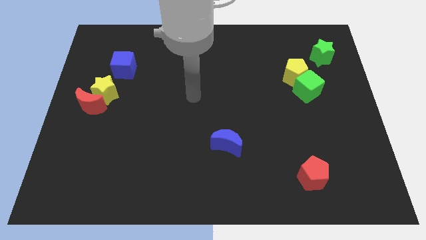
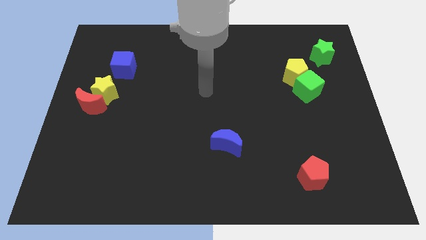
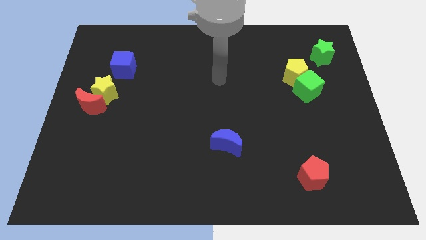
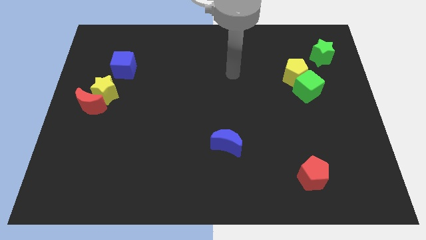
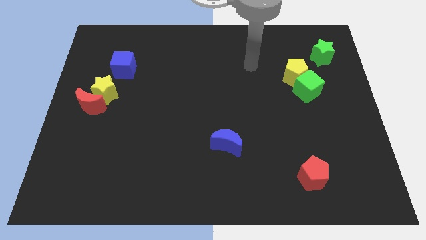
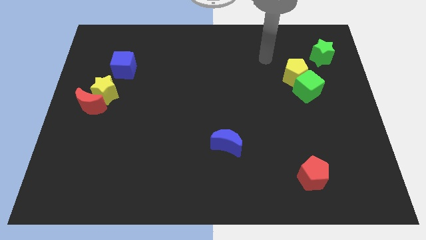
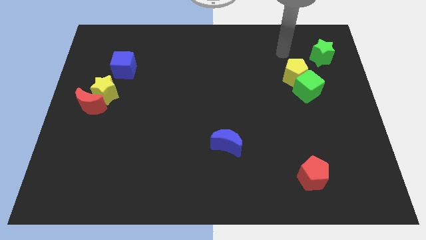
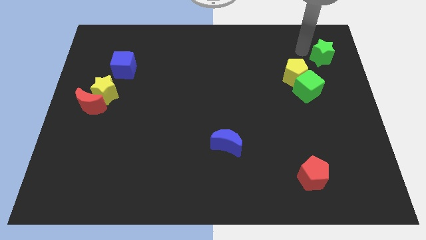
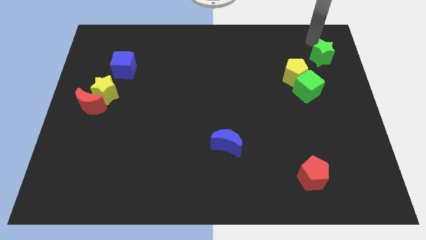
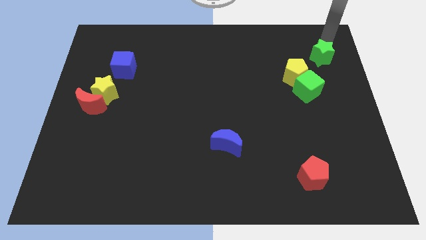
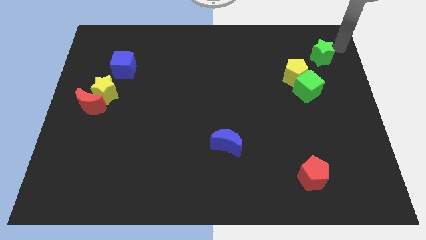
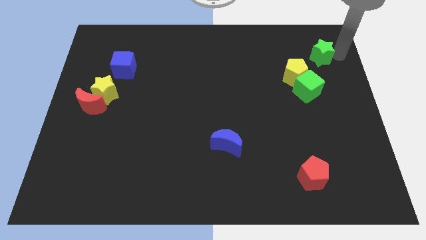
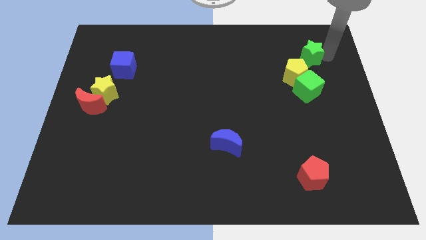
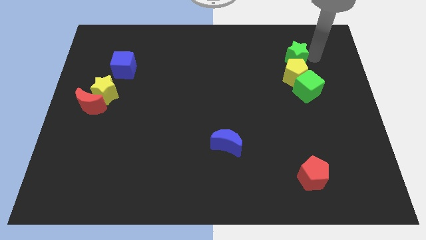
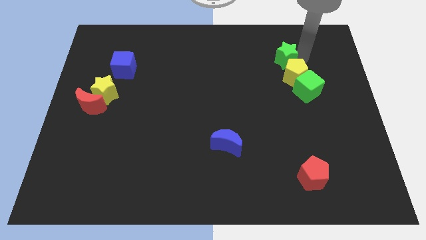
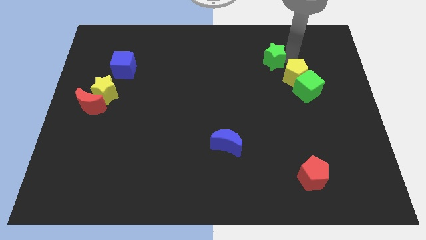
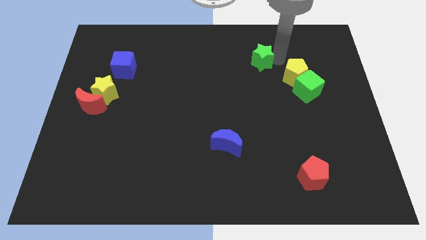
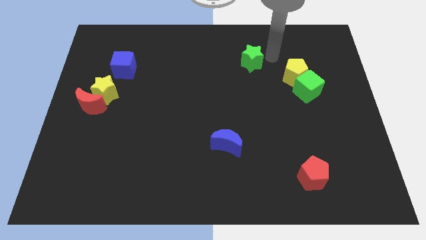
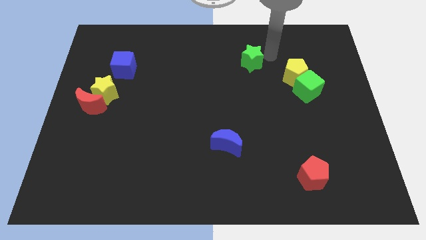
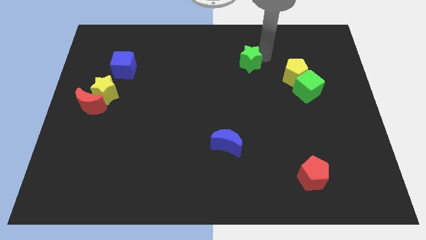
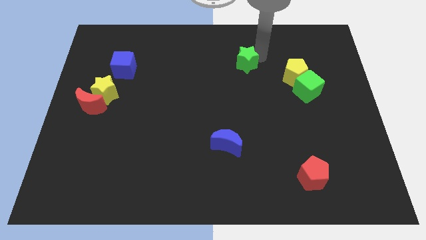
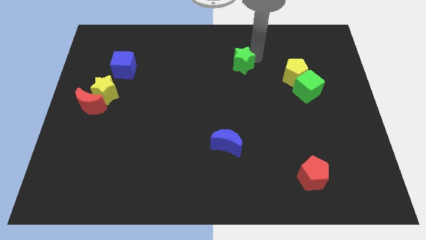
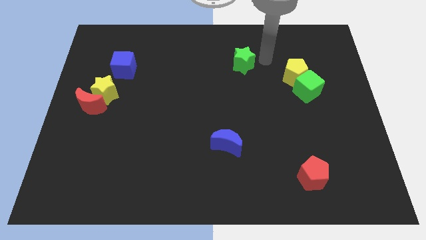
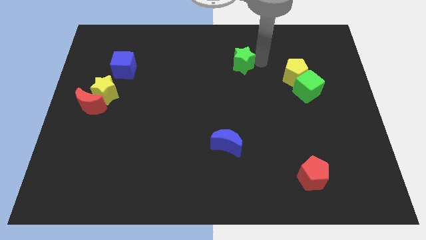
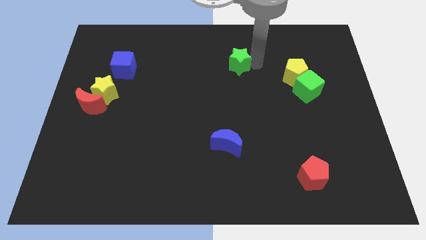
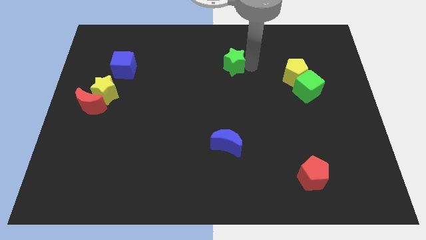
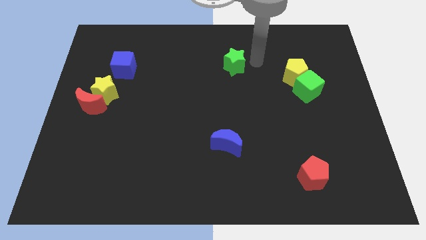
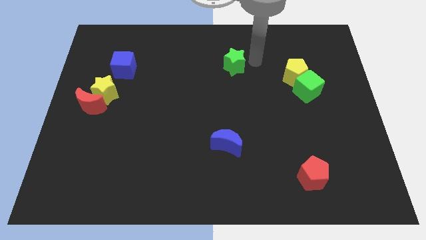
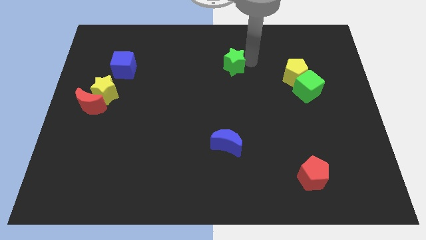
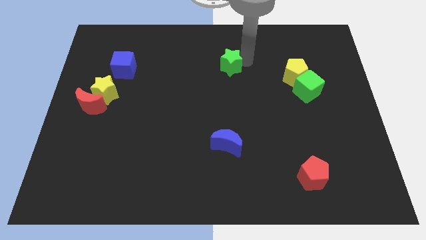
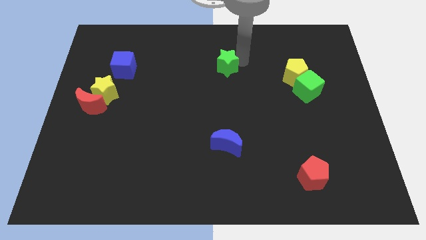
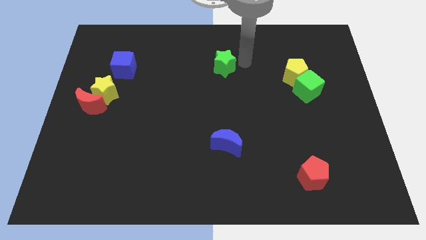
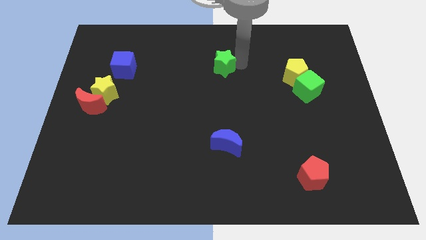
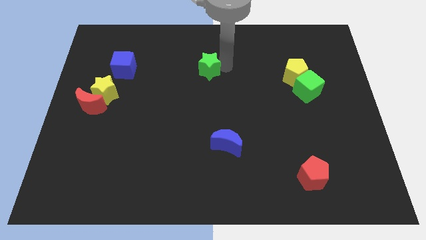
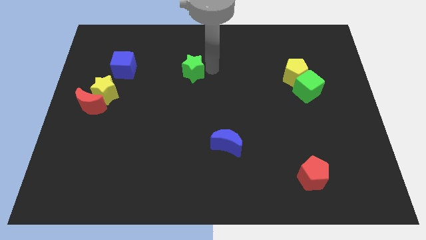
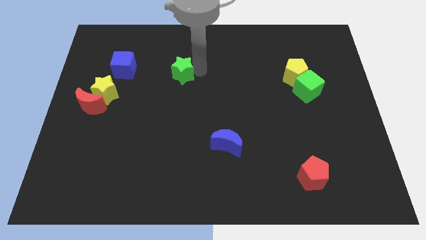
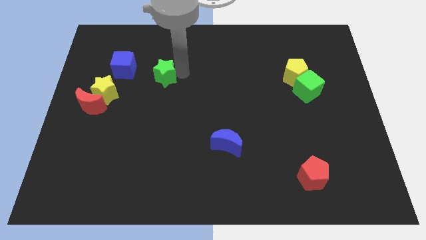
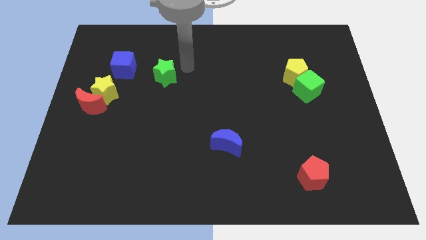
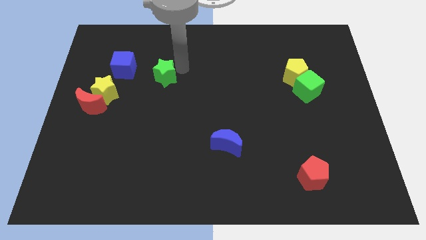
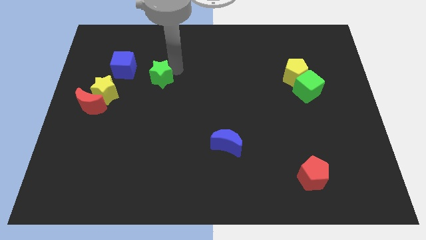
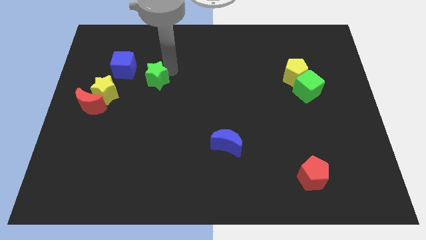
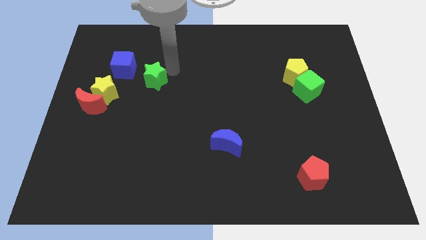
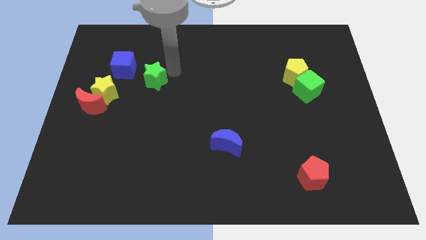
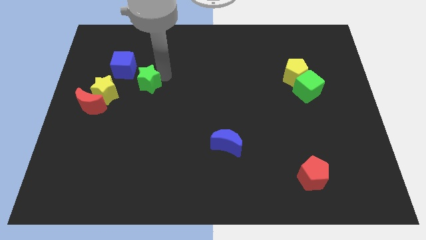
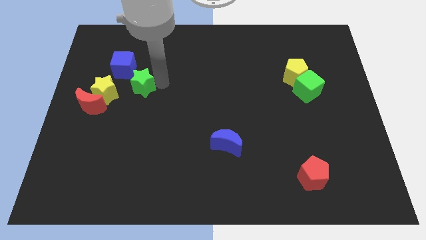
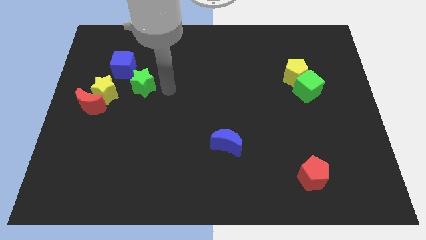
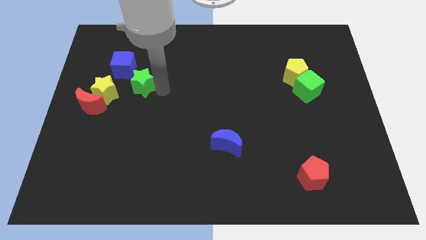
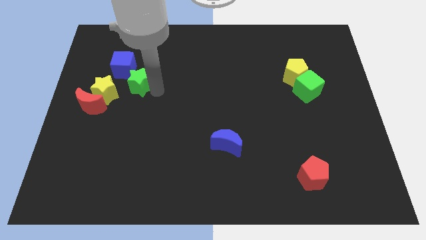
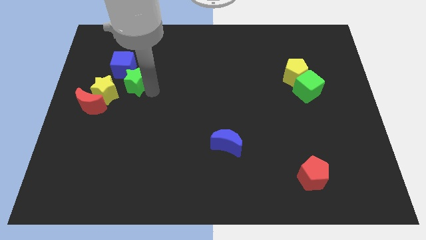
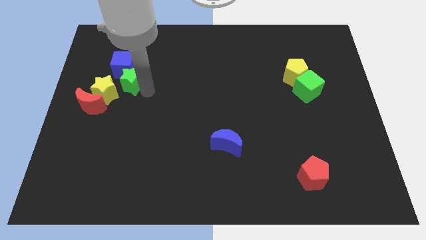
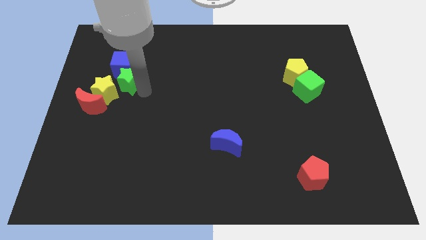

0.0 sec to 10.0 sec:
put the green star close to the yellow star

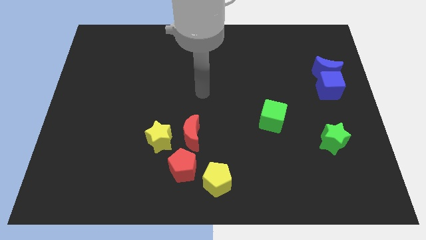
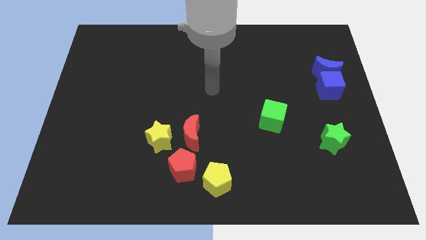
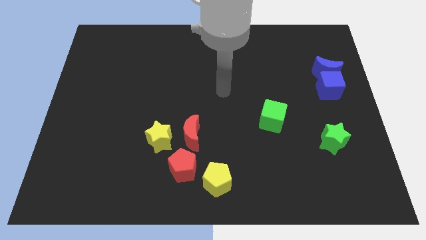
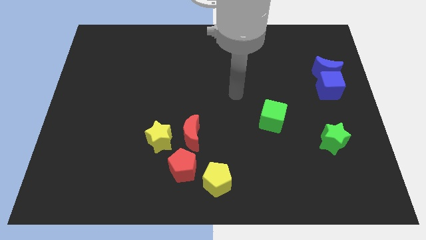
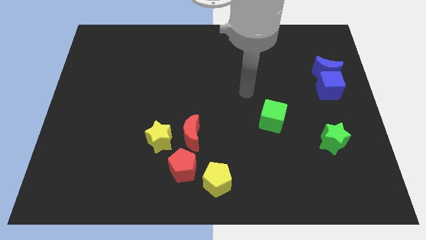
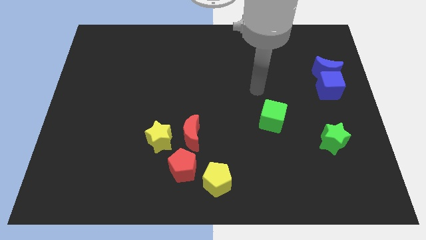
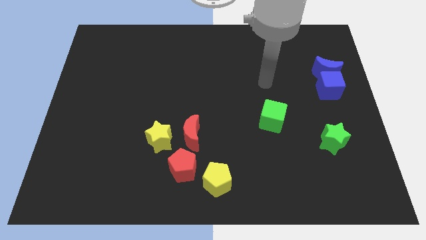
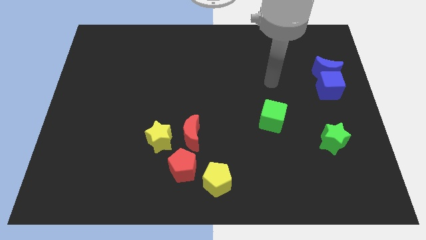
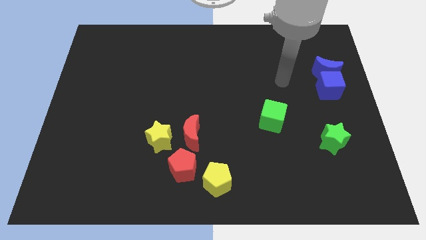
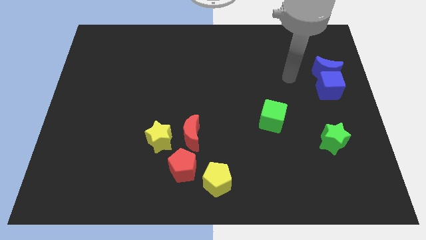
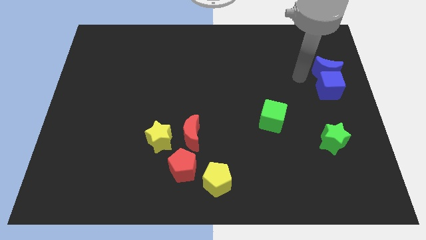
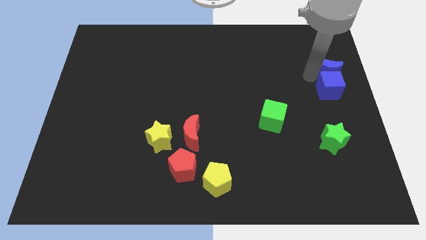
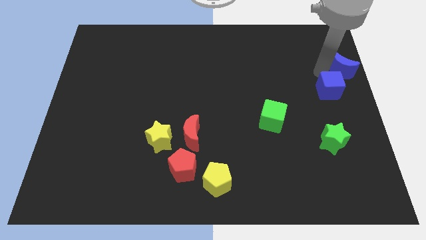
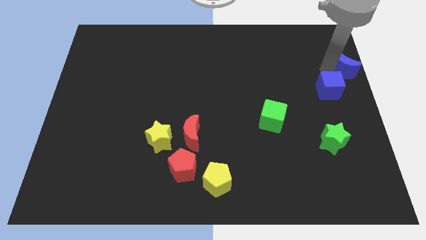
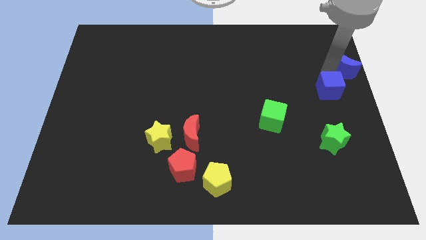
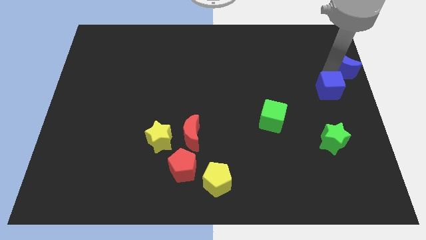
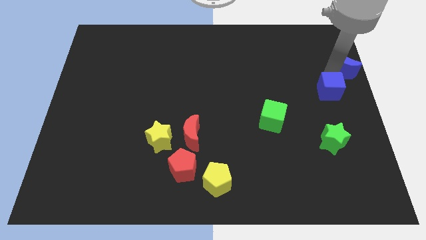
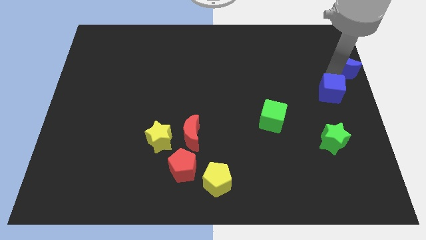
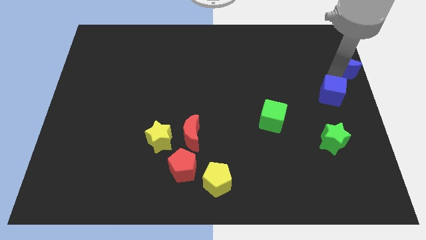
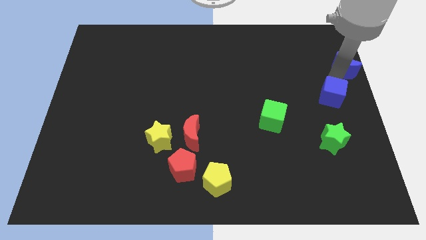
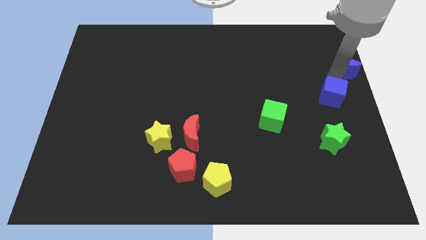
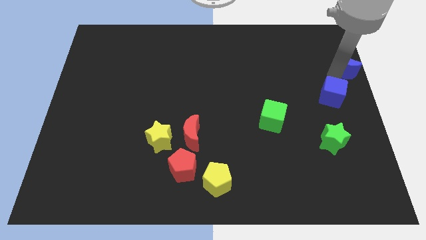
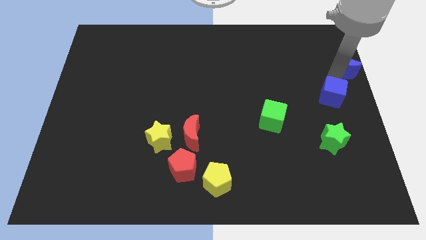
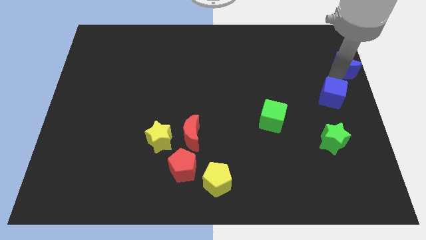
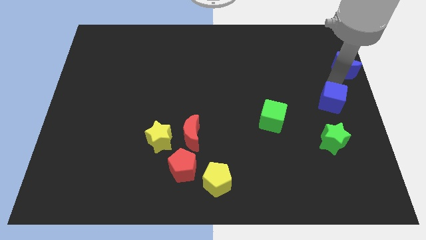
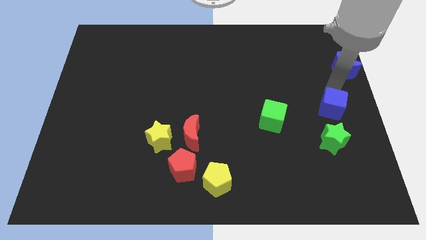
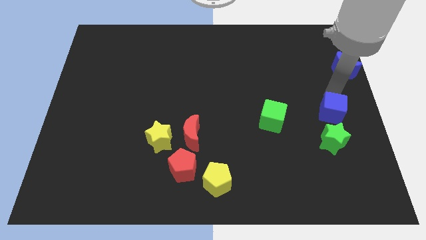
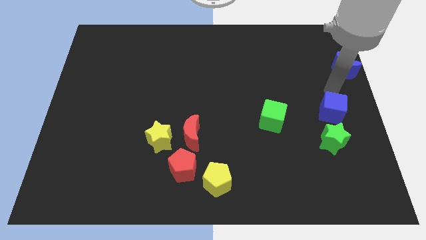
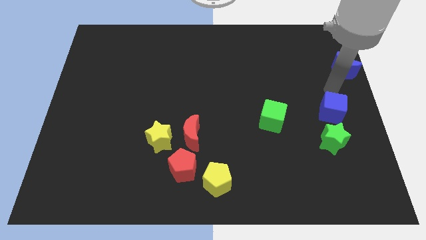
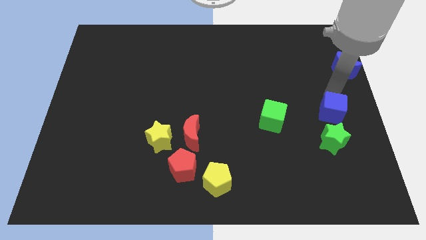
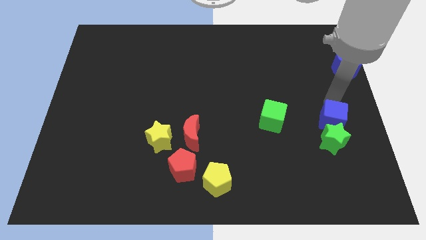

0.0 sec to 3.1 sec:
slide the blue cube to the green star
